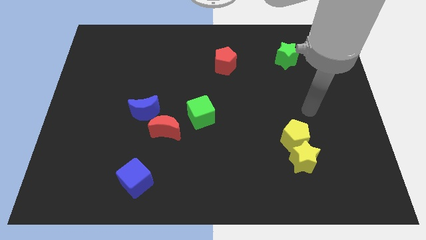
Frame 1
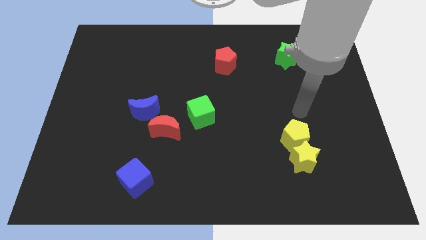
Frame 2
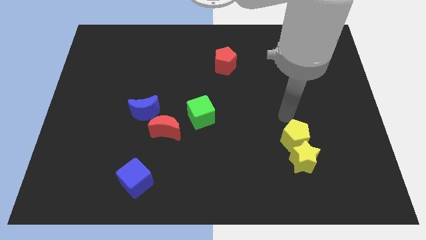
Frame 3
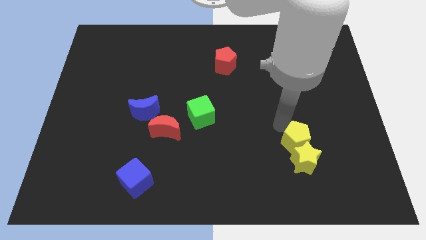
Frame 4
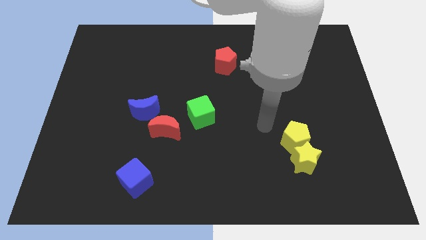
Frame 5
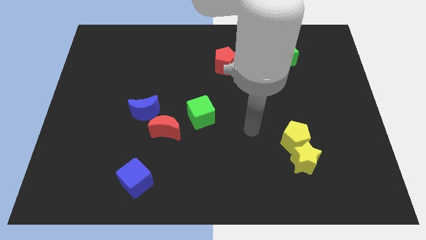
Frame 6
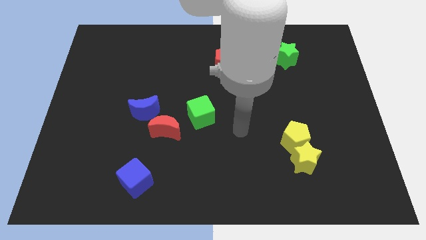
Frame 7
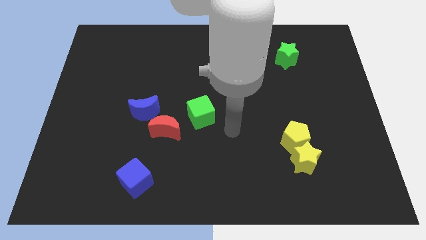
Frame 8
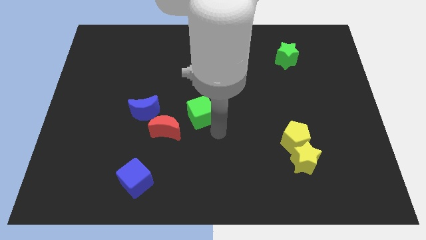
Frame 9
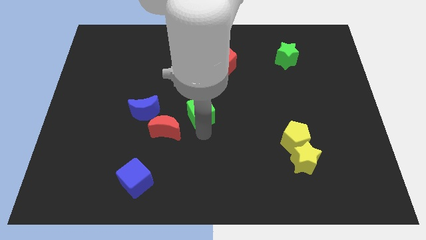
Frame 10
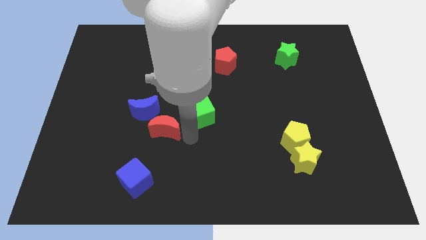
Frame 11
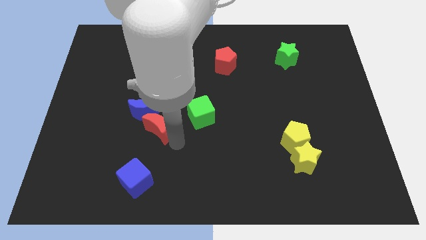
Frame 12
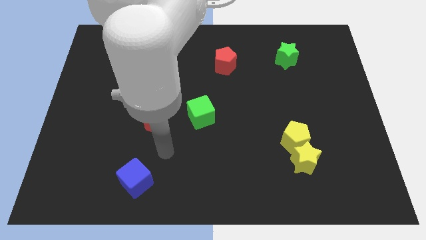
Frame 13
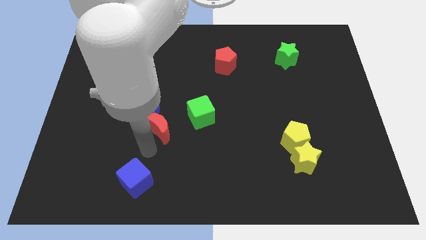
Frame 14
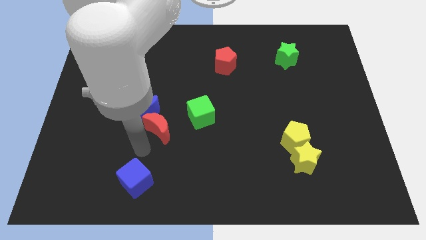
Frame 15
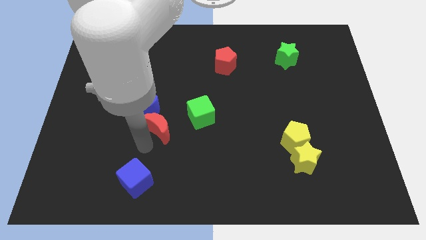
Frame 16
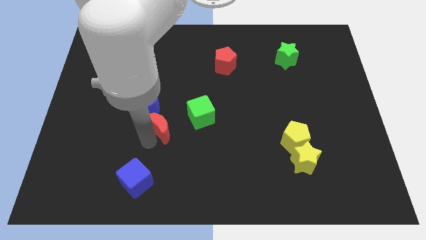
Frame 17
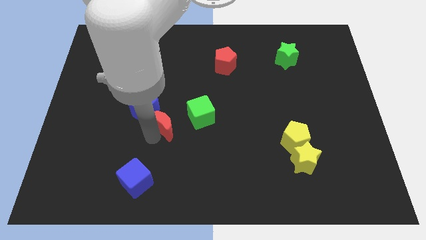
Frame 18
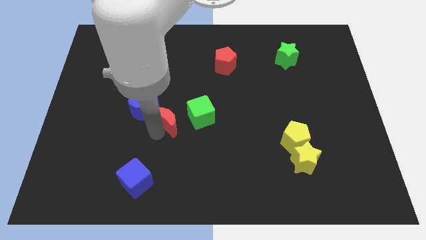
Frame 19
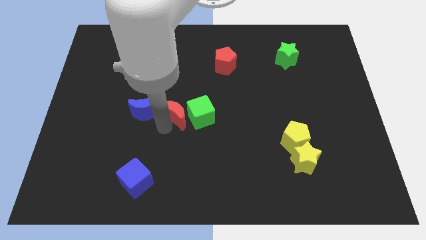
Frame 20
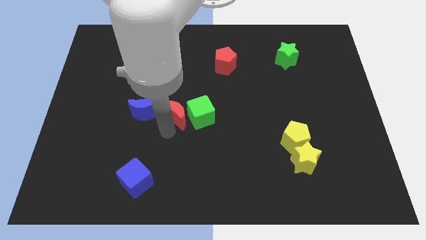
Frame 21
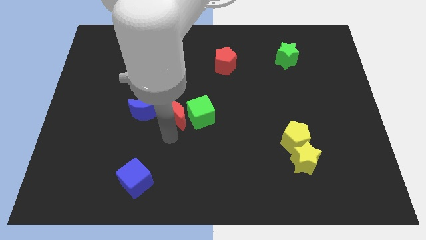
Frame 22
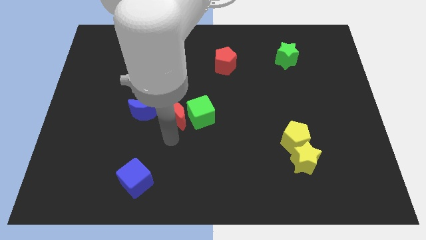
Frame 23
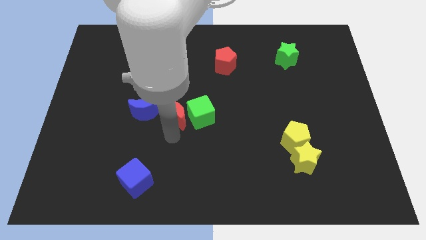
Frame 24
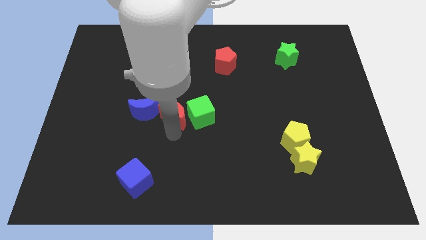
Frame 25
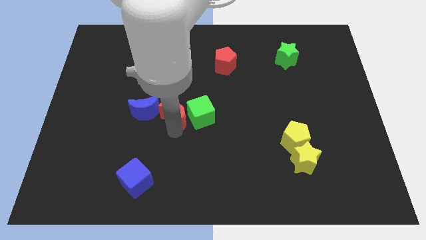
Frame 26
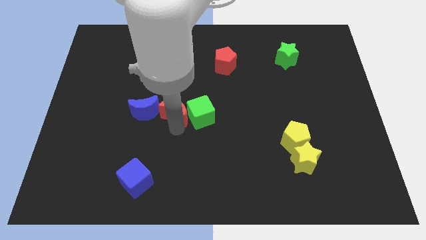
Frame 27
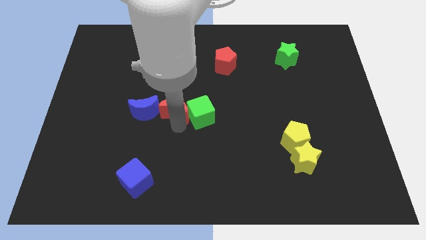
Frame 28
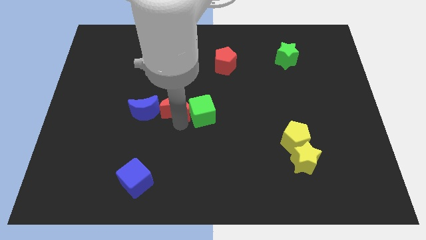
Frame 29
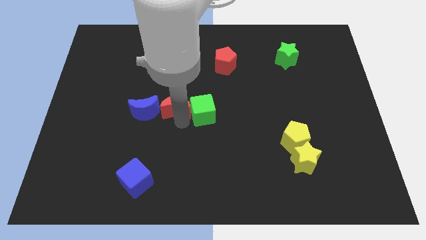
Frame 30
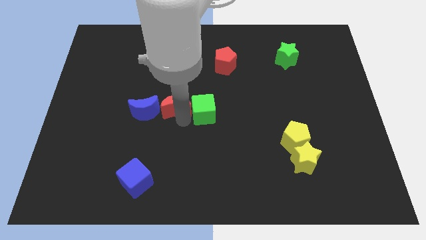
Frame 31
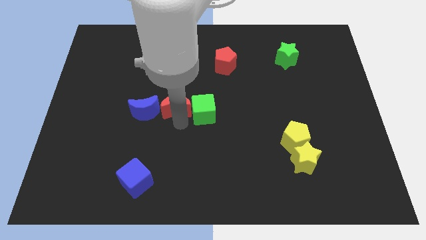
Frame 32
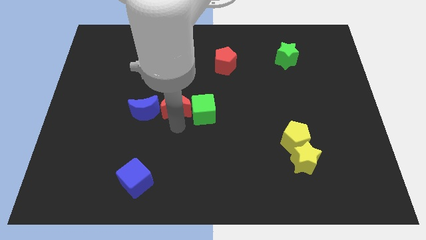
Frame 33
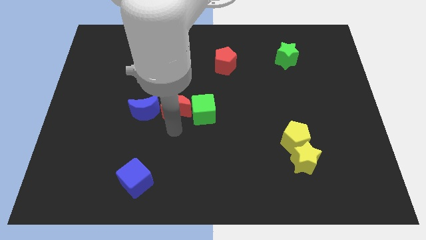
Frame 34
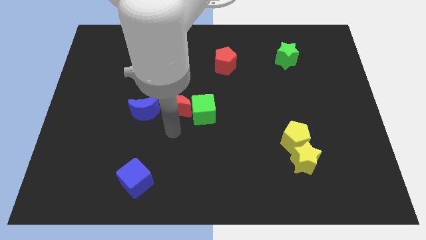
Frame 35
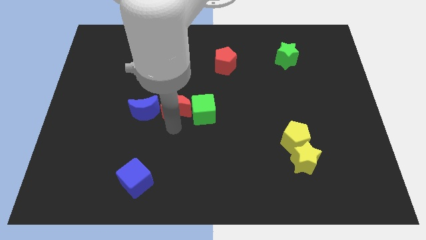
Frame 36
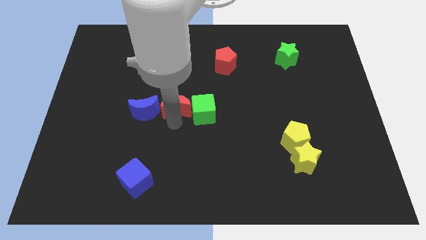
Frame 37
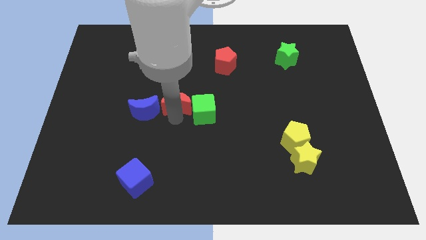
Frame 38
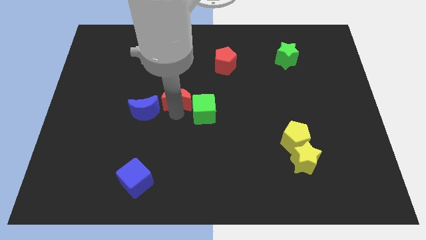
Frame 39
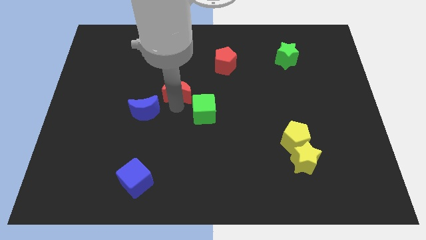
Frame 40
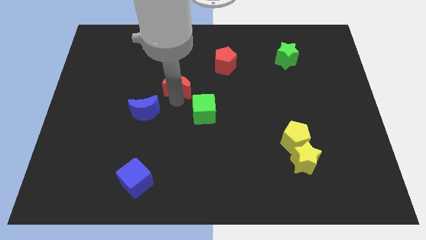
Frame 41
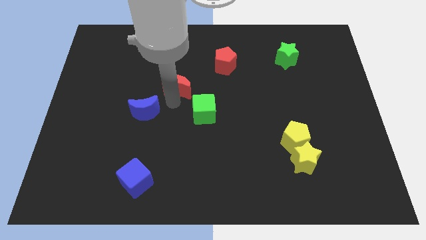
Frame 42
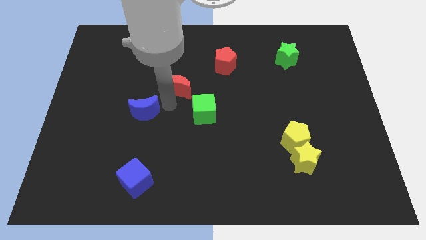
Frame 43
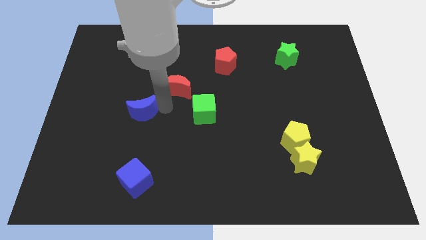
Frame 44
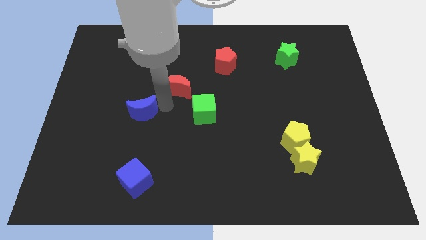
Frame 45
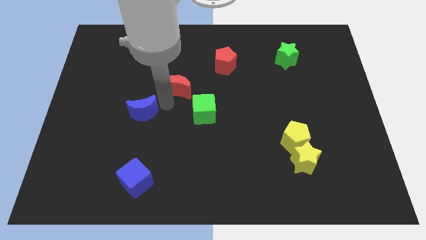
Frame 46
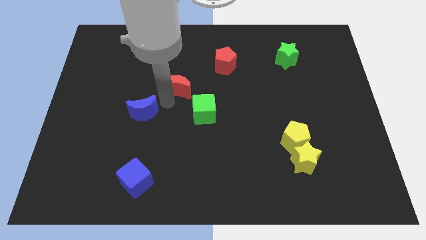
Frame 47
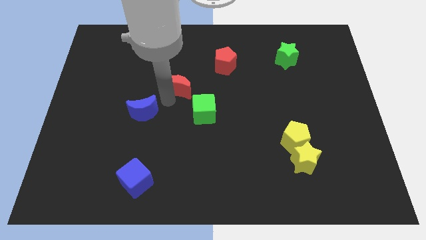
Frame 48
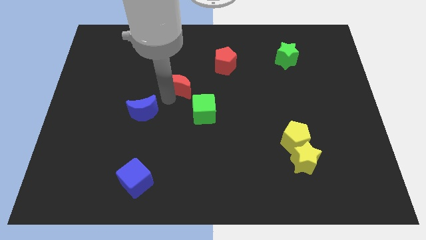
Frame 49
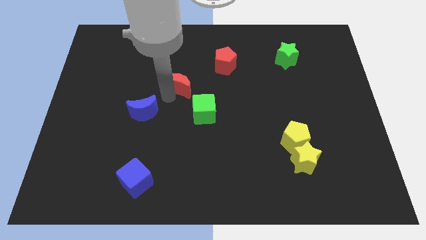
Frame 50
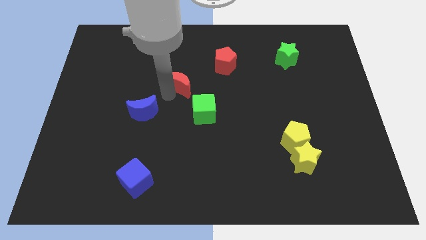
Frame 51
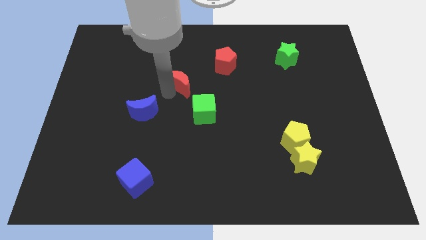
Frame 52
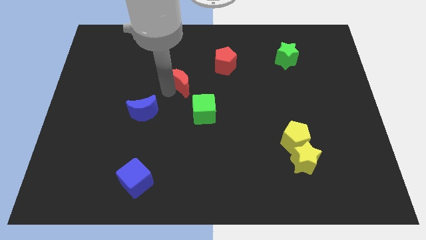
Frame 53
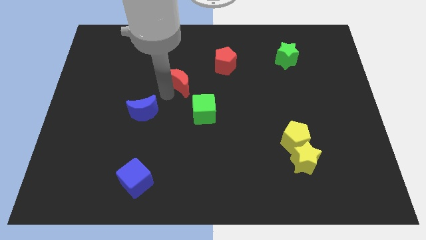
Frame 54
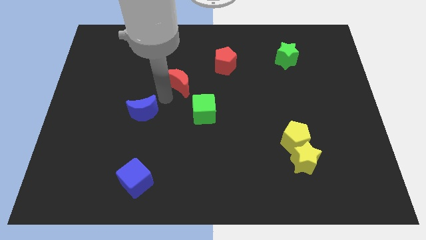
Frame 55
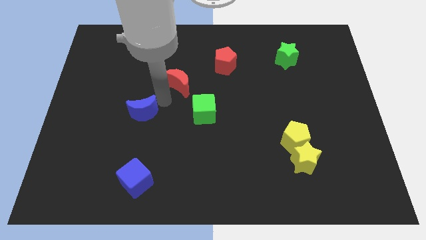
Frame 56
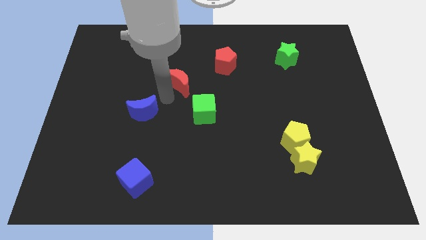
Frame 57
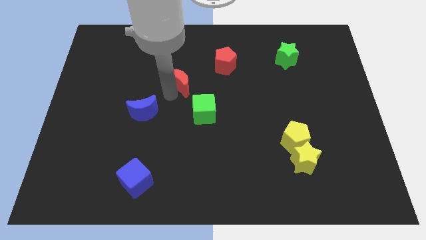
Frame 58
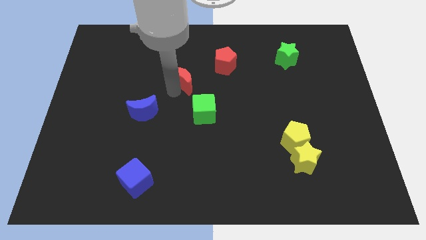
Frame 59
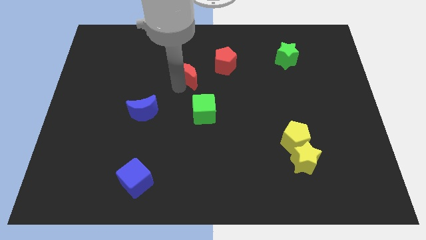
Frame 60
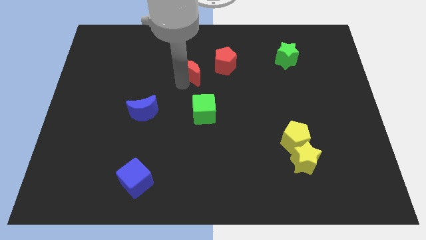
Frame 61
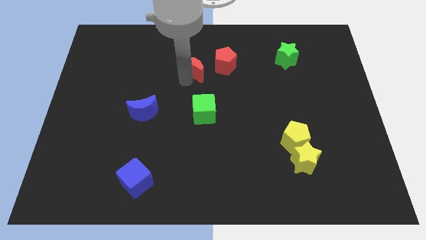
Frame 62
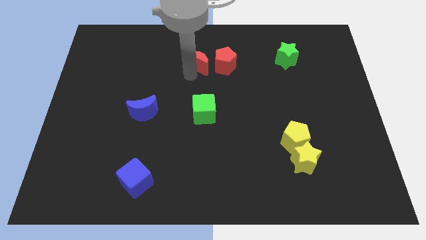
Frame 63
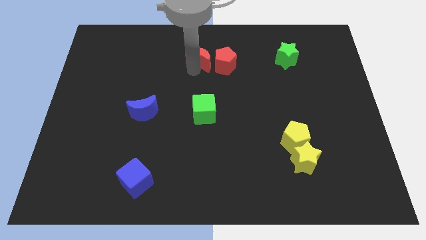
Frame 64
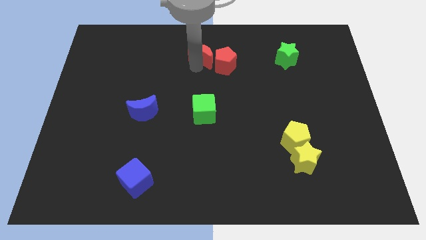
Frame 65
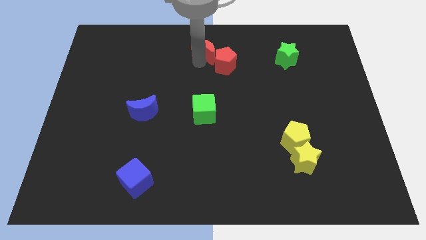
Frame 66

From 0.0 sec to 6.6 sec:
push the red moon to the towards your base
